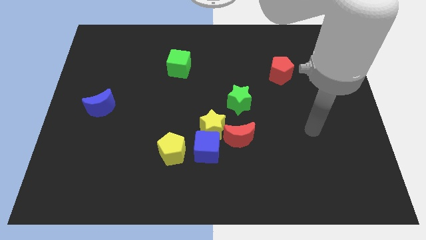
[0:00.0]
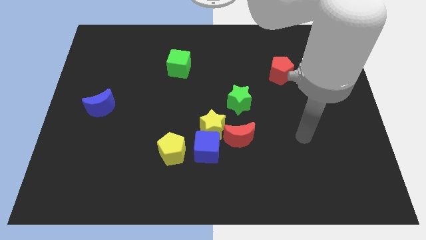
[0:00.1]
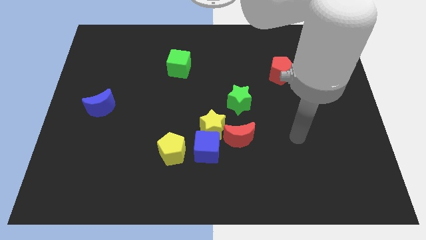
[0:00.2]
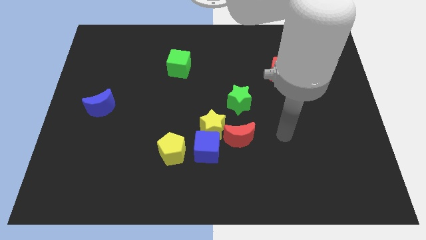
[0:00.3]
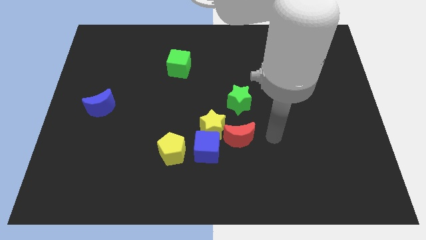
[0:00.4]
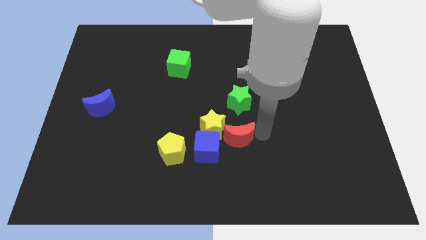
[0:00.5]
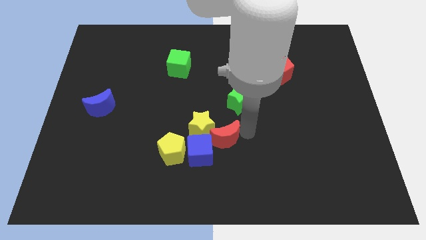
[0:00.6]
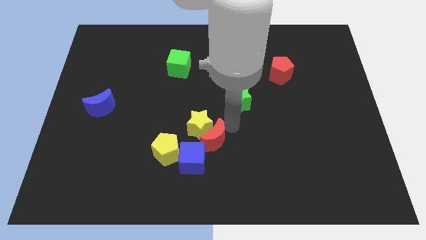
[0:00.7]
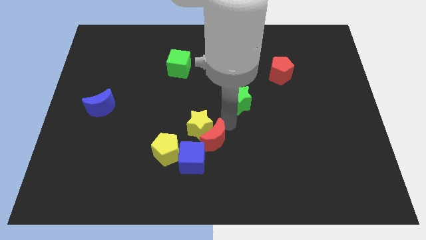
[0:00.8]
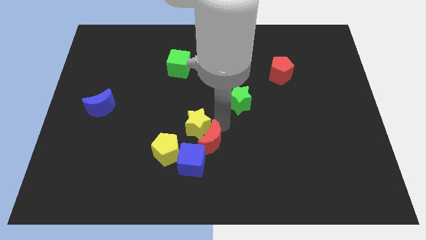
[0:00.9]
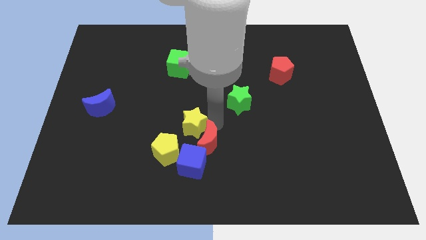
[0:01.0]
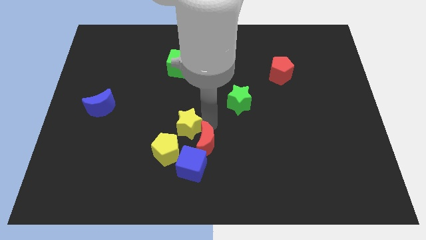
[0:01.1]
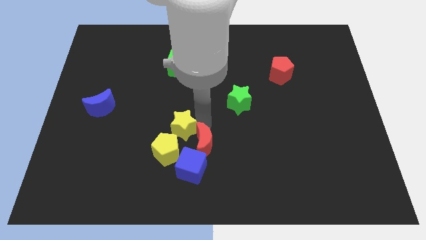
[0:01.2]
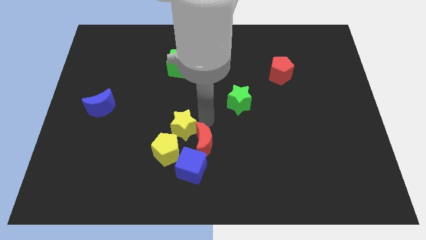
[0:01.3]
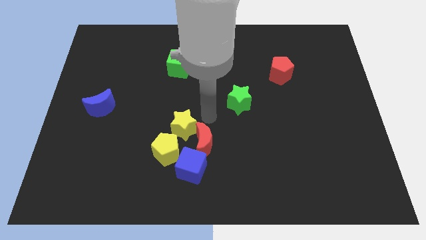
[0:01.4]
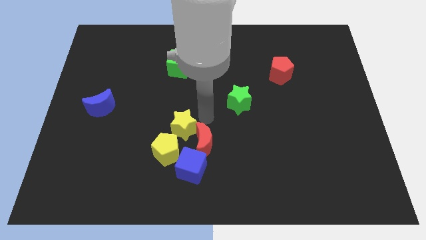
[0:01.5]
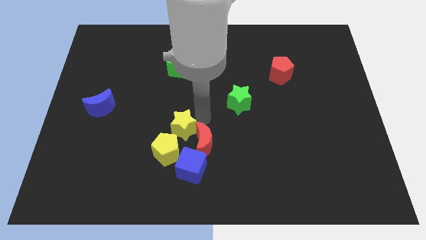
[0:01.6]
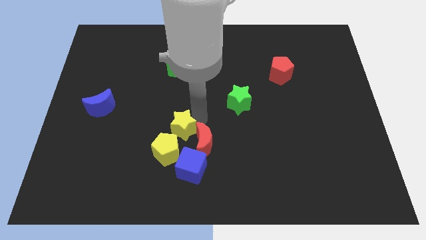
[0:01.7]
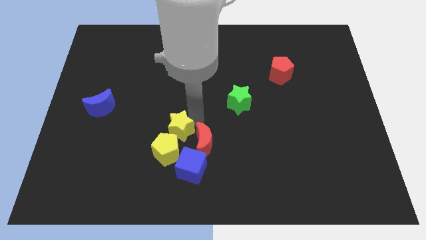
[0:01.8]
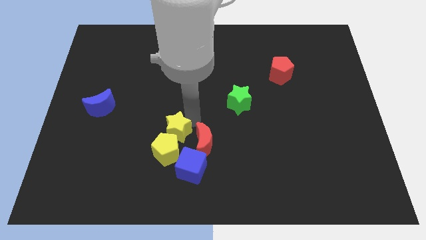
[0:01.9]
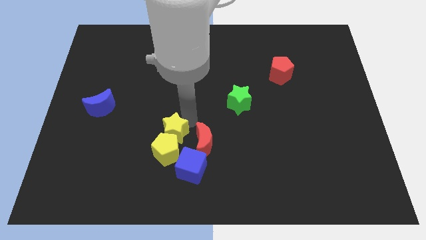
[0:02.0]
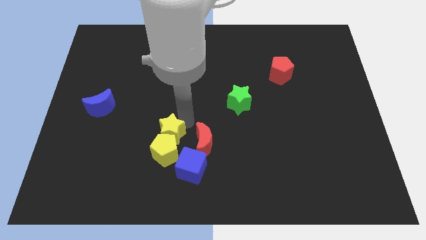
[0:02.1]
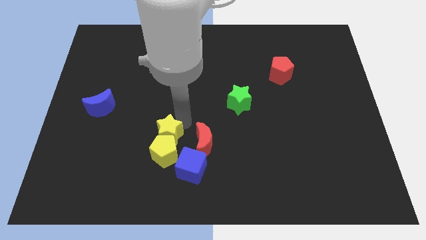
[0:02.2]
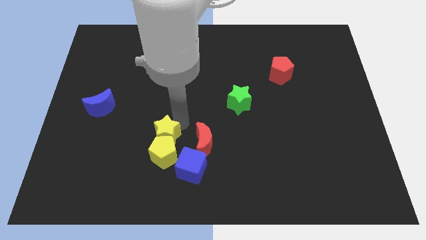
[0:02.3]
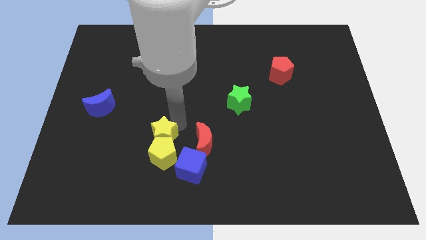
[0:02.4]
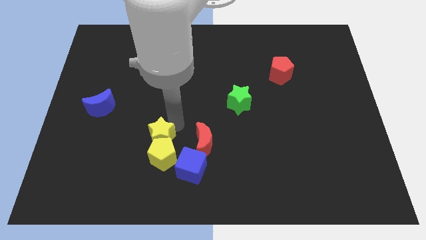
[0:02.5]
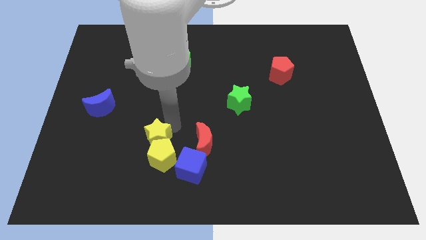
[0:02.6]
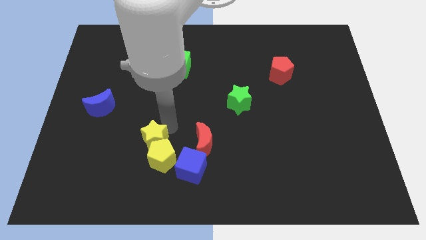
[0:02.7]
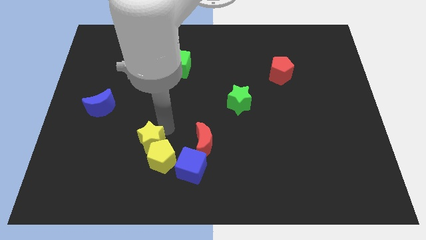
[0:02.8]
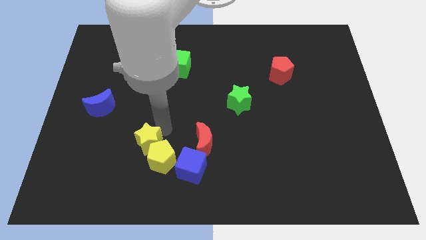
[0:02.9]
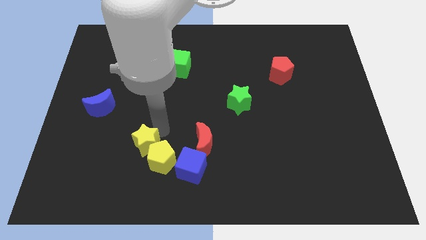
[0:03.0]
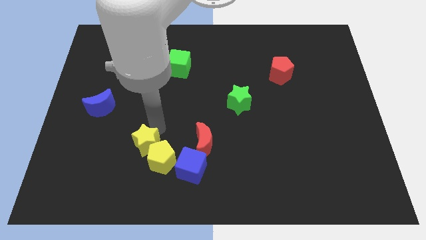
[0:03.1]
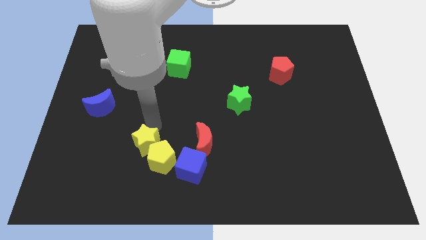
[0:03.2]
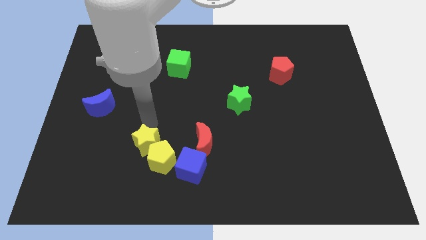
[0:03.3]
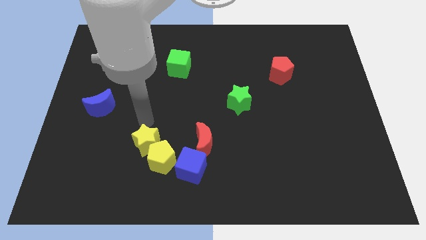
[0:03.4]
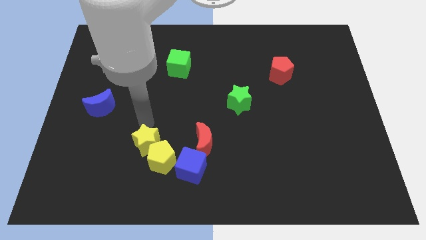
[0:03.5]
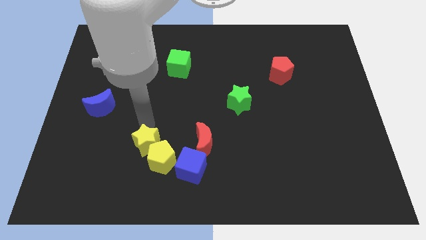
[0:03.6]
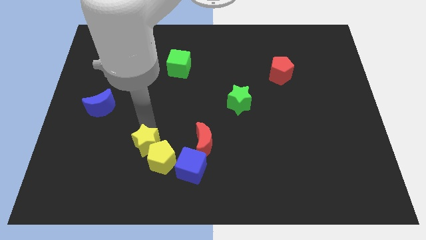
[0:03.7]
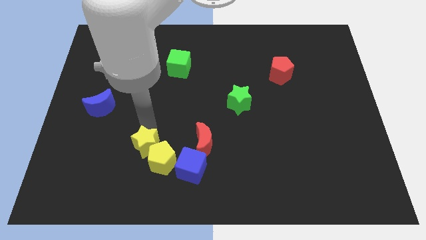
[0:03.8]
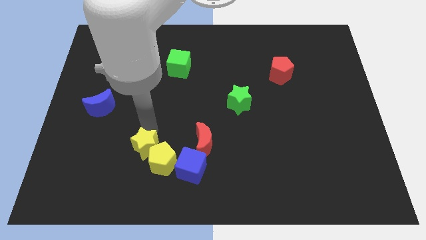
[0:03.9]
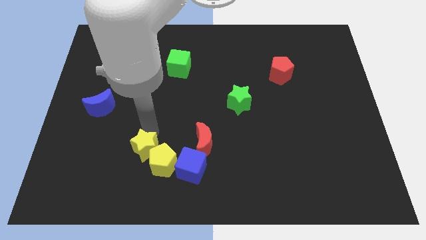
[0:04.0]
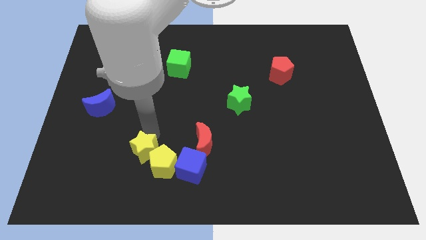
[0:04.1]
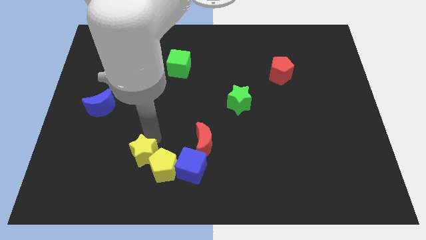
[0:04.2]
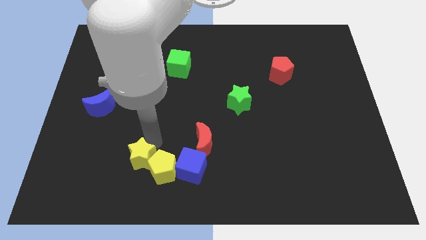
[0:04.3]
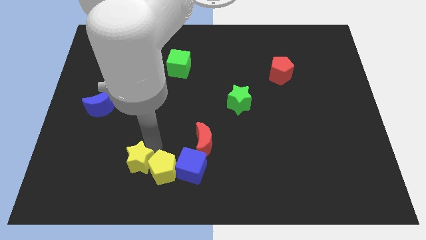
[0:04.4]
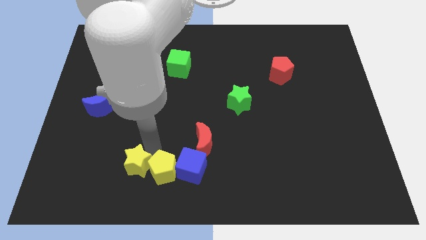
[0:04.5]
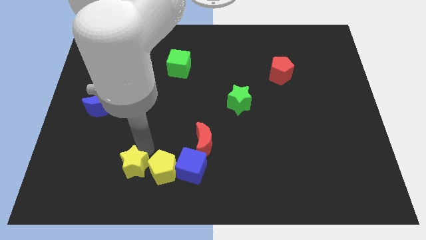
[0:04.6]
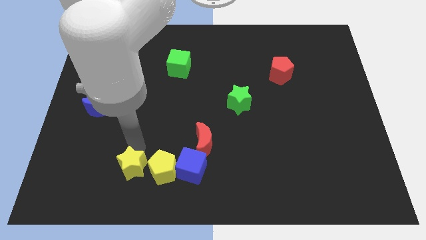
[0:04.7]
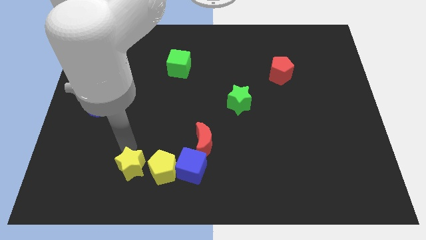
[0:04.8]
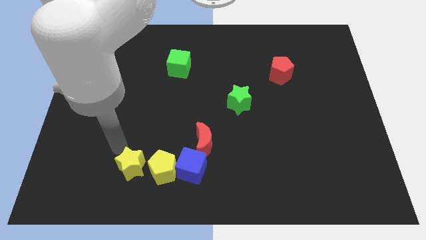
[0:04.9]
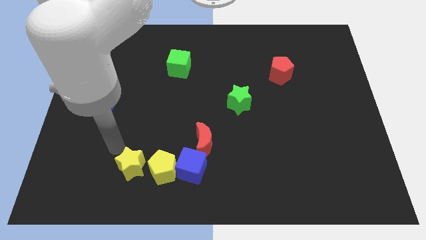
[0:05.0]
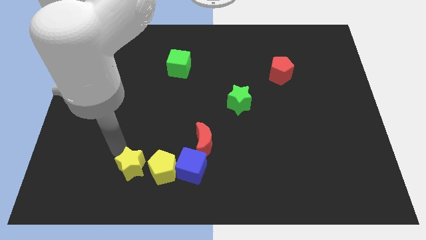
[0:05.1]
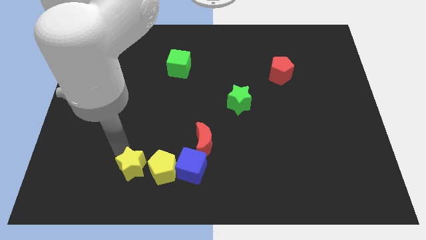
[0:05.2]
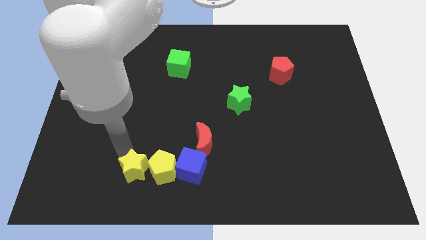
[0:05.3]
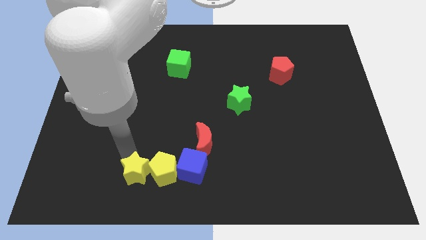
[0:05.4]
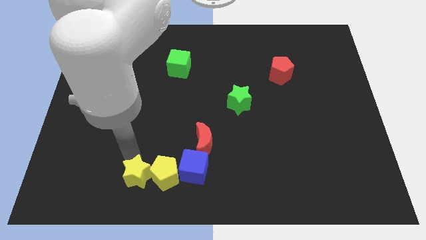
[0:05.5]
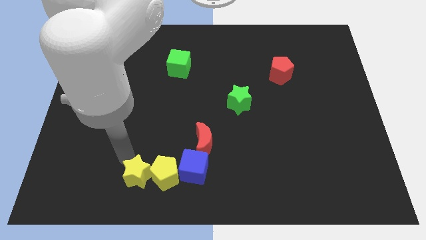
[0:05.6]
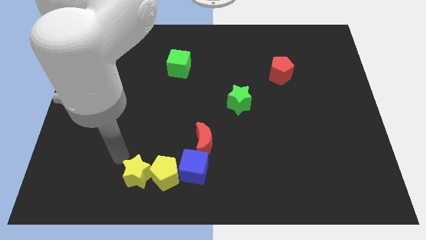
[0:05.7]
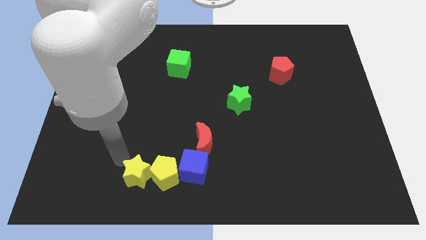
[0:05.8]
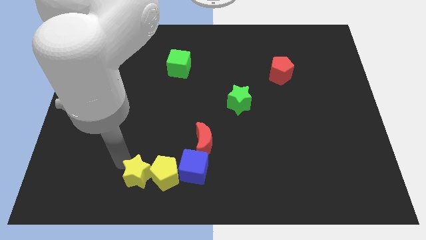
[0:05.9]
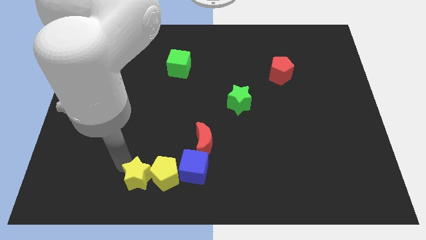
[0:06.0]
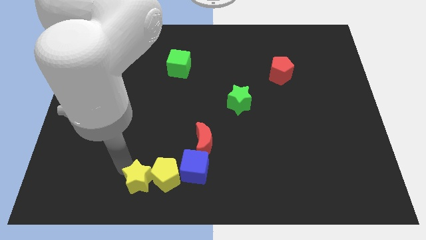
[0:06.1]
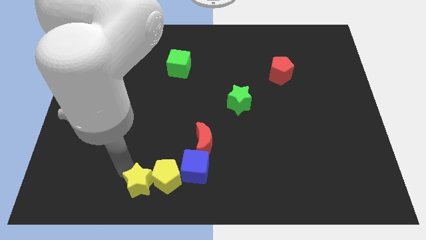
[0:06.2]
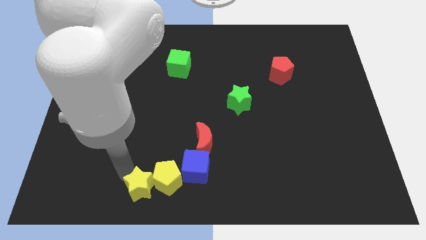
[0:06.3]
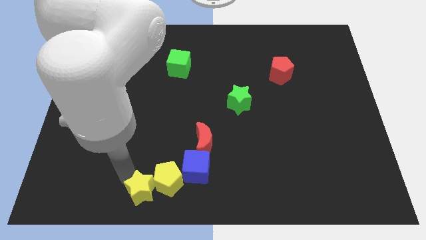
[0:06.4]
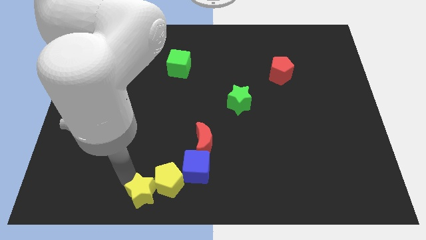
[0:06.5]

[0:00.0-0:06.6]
push the yellow star to the bottom side

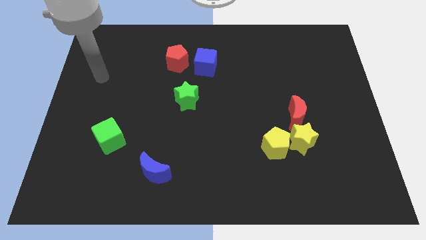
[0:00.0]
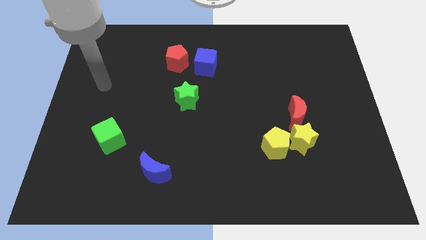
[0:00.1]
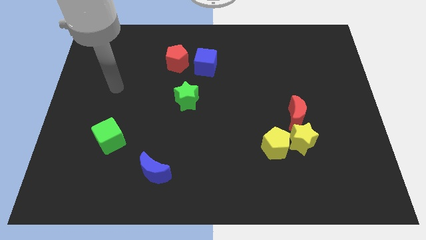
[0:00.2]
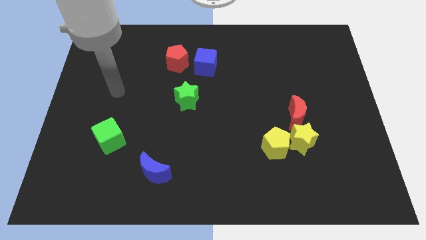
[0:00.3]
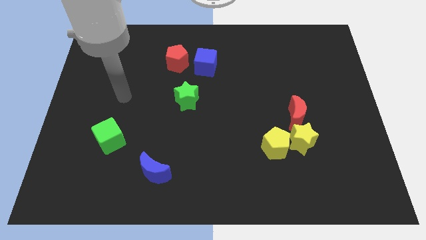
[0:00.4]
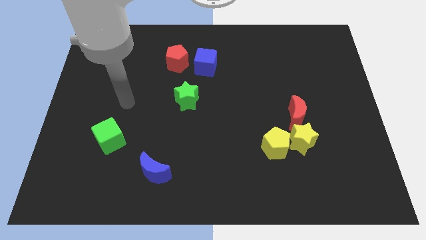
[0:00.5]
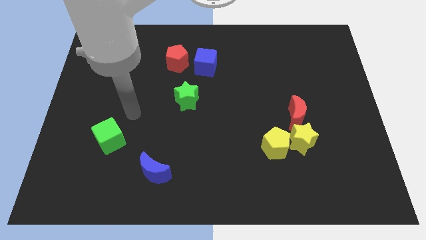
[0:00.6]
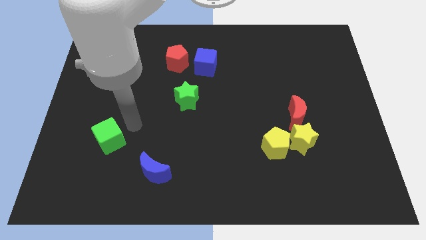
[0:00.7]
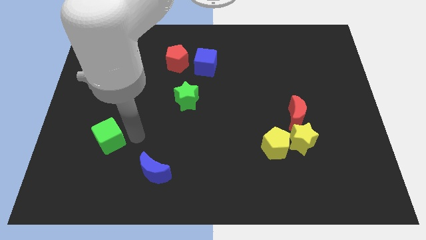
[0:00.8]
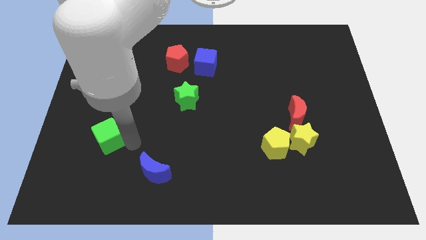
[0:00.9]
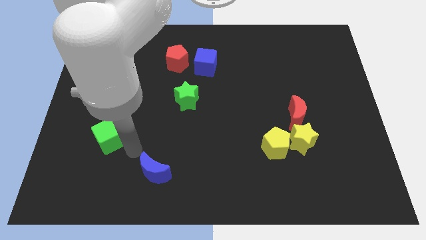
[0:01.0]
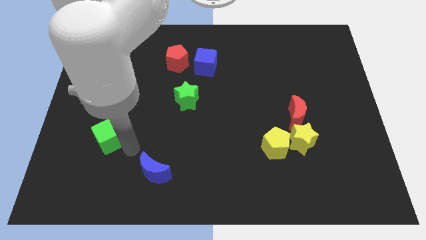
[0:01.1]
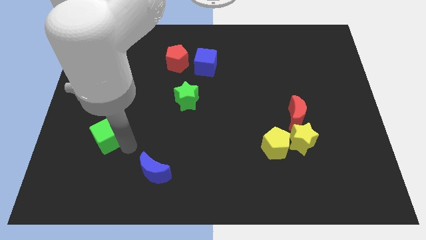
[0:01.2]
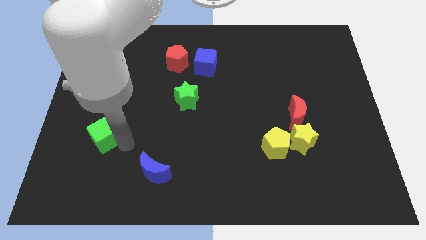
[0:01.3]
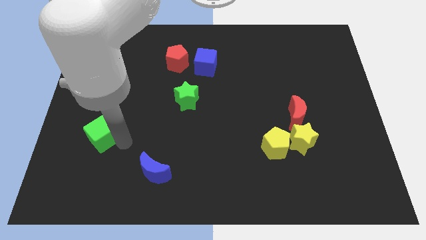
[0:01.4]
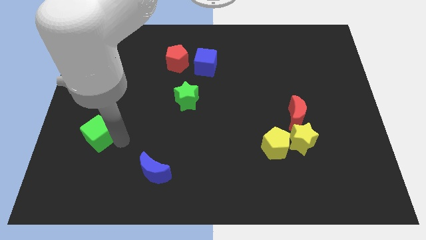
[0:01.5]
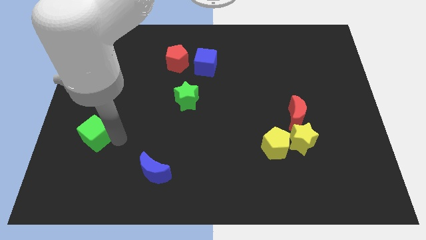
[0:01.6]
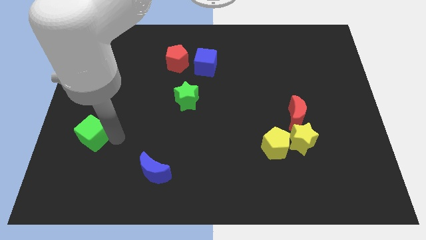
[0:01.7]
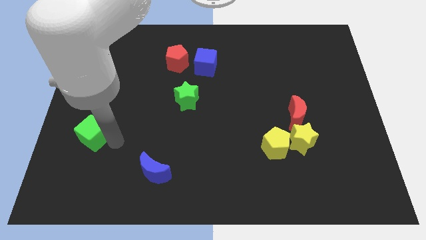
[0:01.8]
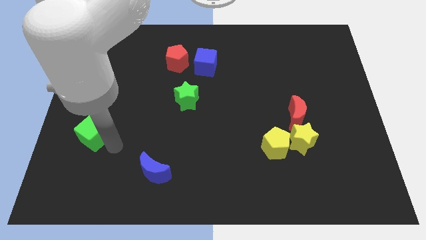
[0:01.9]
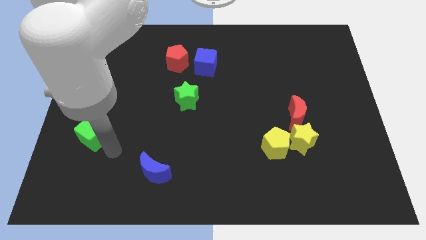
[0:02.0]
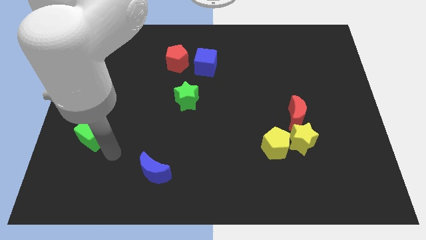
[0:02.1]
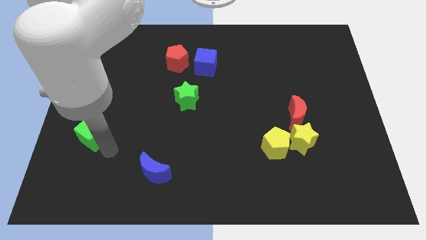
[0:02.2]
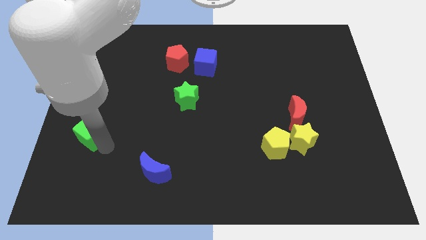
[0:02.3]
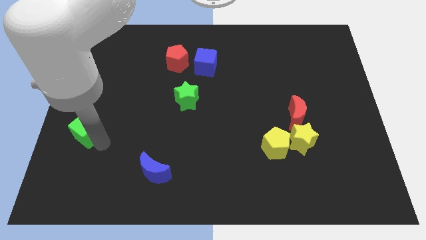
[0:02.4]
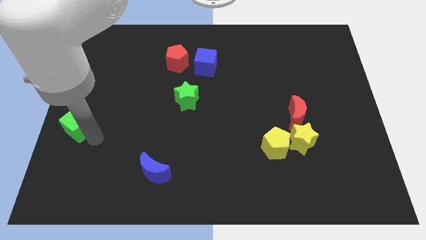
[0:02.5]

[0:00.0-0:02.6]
push the green cube to the center left
